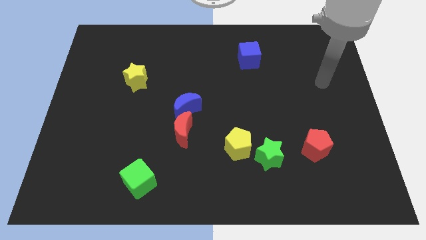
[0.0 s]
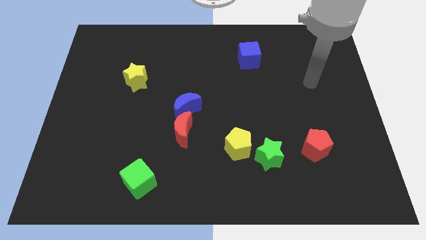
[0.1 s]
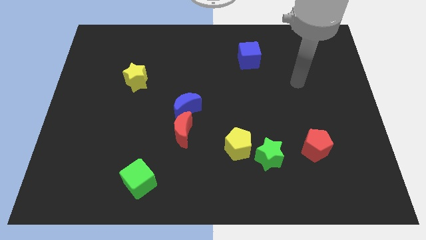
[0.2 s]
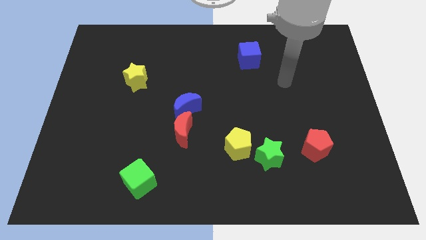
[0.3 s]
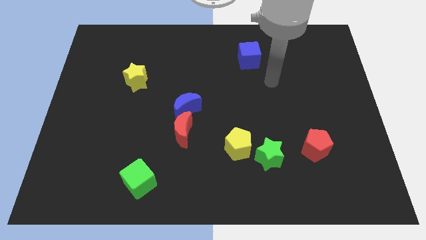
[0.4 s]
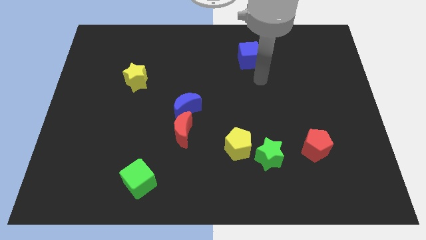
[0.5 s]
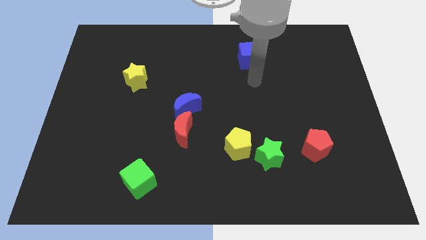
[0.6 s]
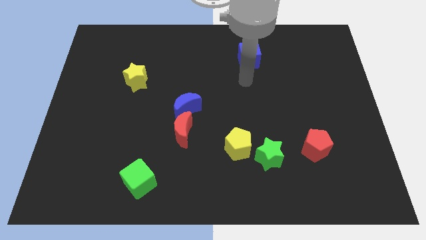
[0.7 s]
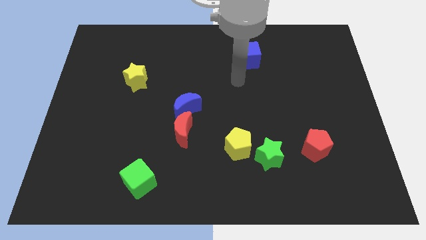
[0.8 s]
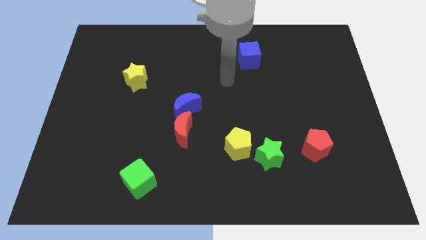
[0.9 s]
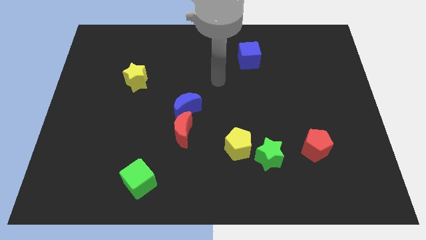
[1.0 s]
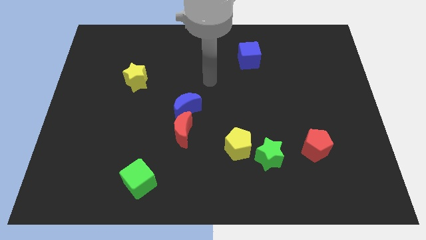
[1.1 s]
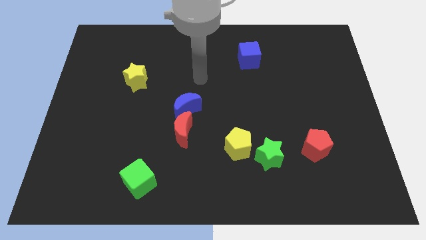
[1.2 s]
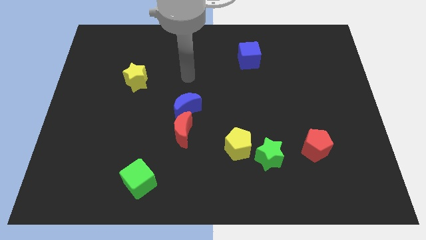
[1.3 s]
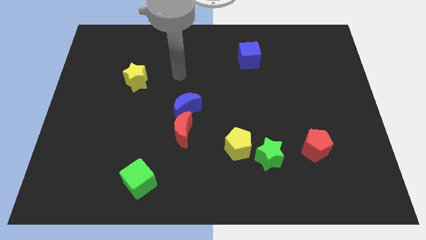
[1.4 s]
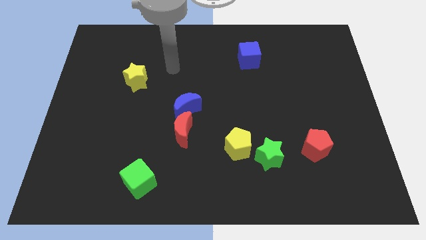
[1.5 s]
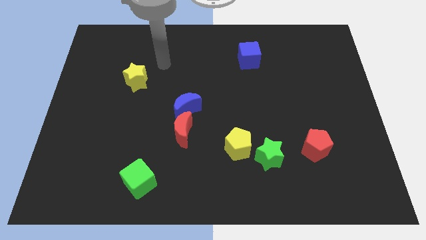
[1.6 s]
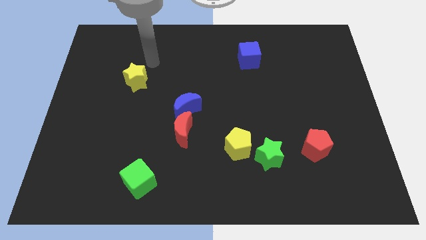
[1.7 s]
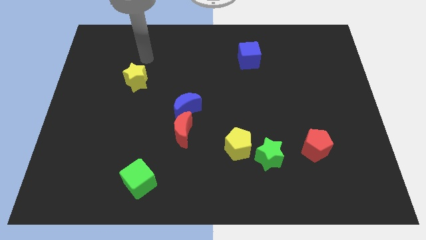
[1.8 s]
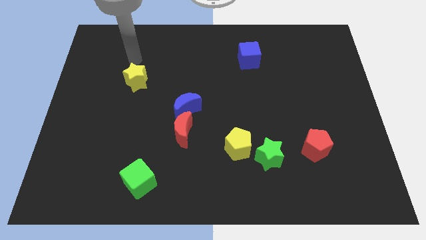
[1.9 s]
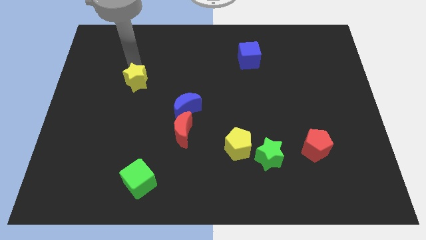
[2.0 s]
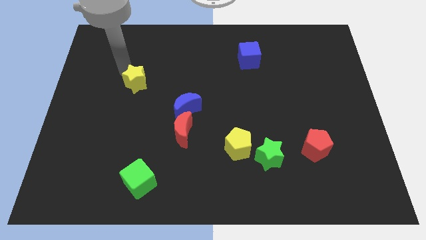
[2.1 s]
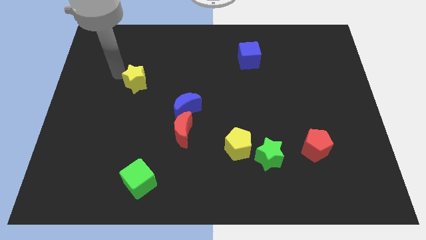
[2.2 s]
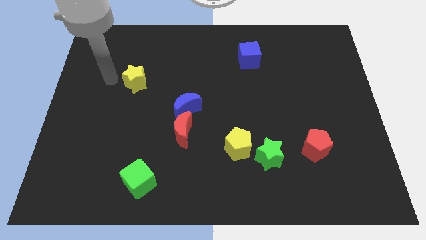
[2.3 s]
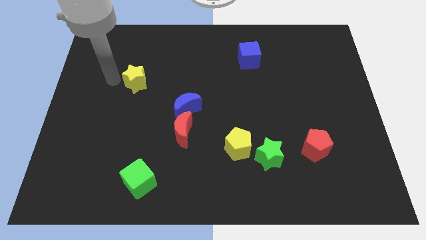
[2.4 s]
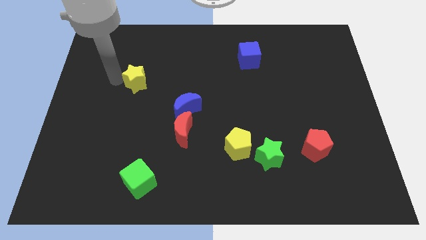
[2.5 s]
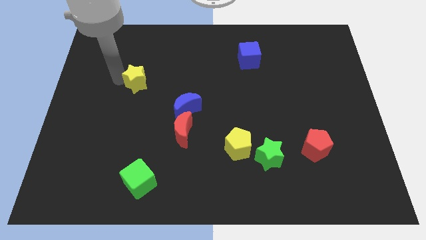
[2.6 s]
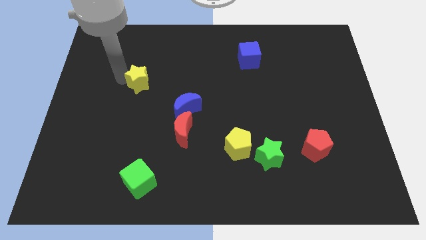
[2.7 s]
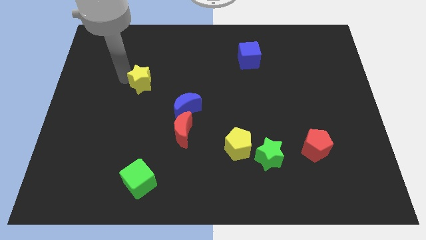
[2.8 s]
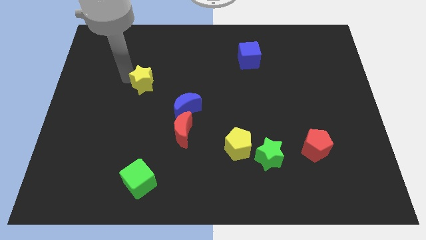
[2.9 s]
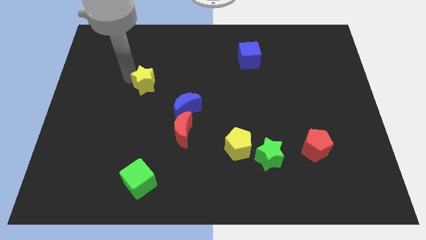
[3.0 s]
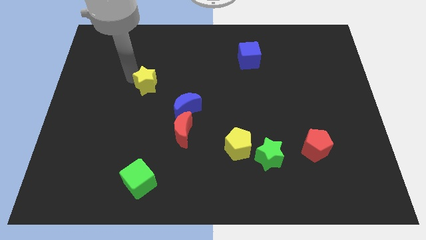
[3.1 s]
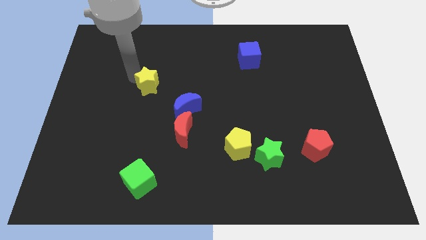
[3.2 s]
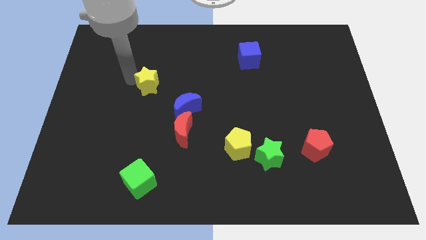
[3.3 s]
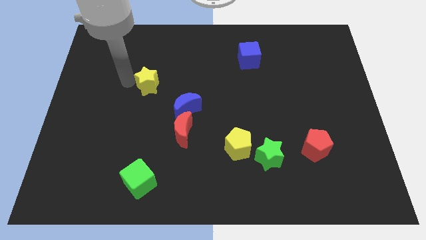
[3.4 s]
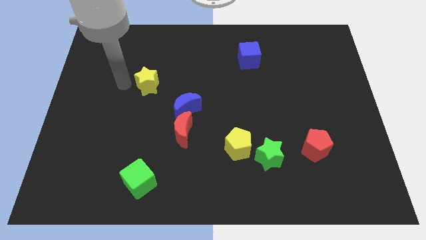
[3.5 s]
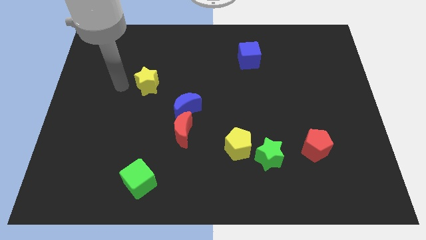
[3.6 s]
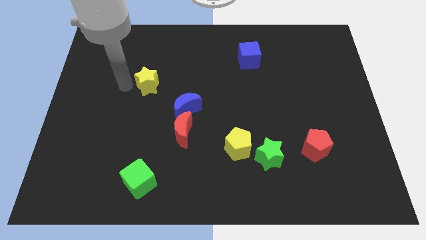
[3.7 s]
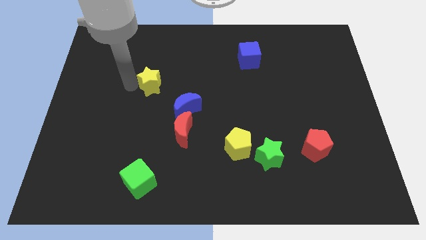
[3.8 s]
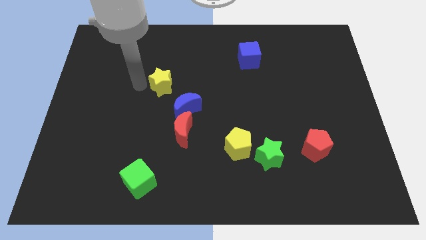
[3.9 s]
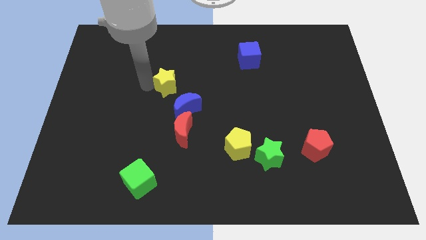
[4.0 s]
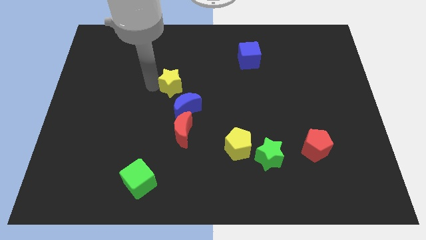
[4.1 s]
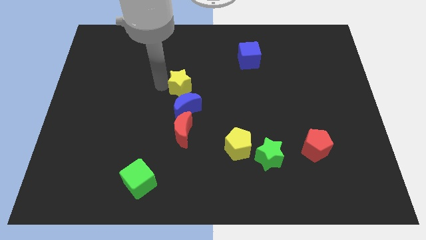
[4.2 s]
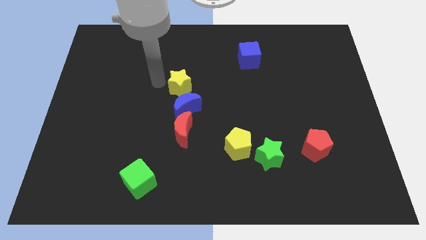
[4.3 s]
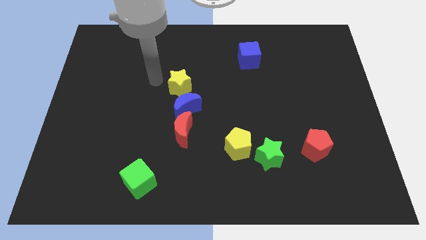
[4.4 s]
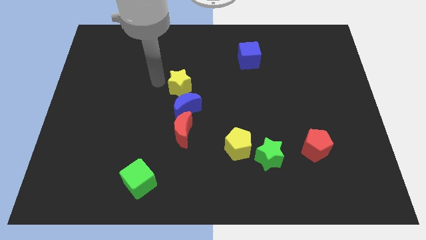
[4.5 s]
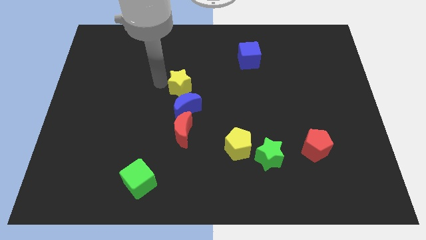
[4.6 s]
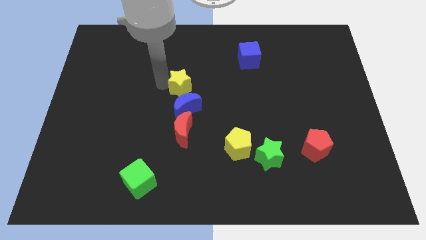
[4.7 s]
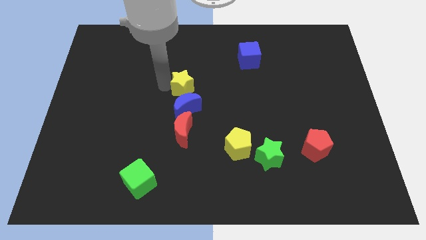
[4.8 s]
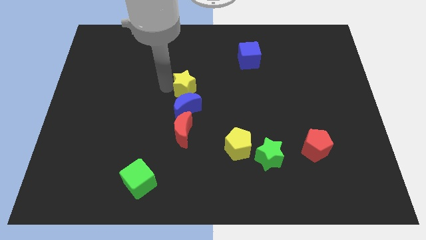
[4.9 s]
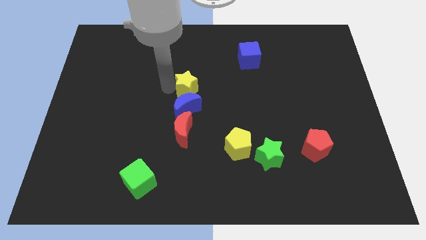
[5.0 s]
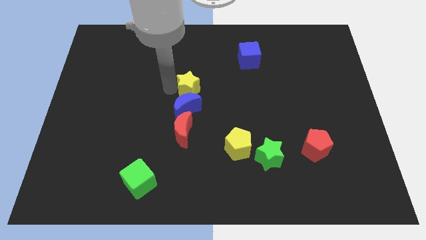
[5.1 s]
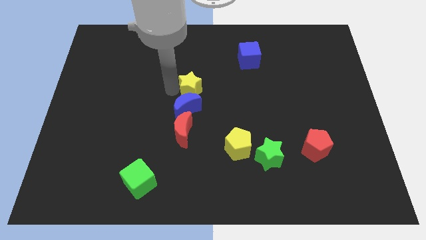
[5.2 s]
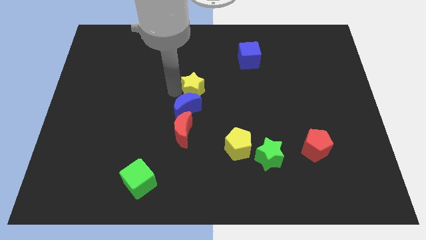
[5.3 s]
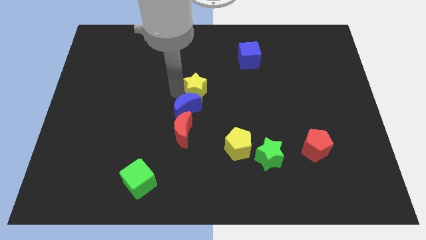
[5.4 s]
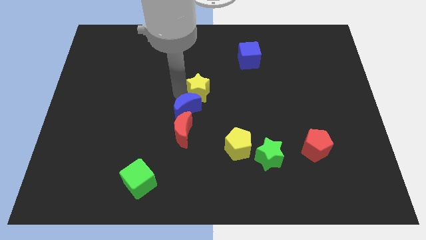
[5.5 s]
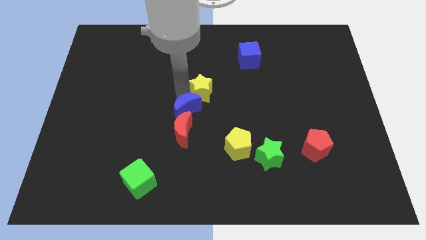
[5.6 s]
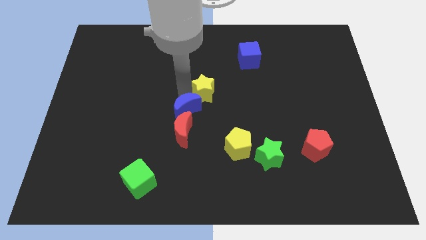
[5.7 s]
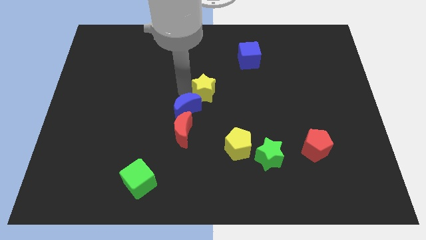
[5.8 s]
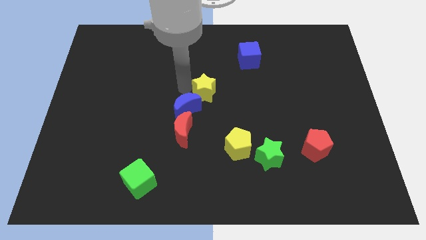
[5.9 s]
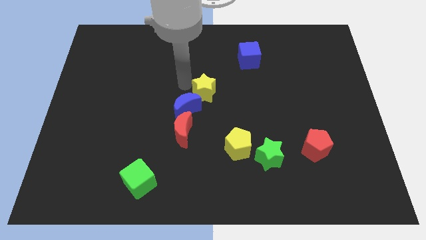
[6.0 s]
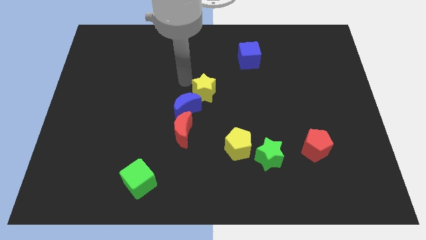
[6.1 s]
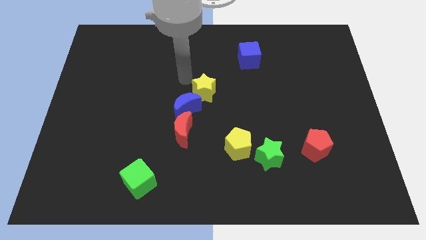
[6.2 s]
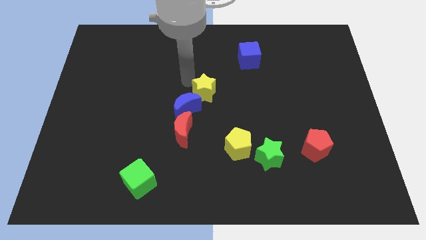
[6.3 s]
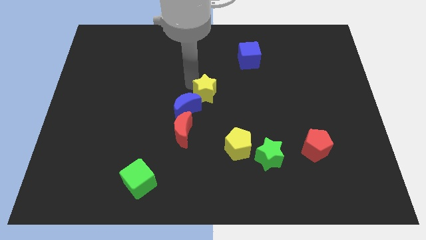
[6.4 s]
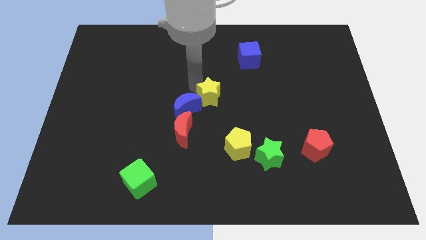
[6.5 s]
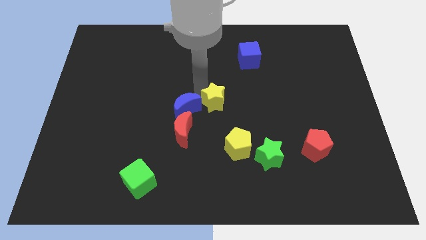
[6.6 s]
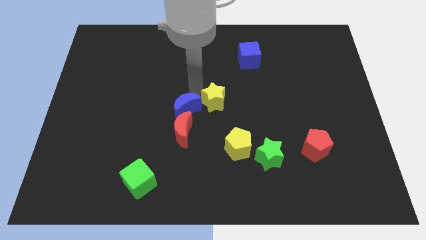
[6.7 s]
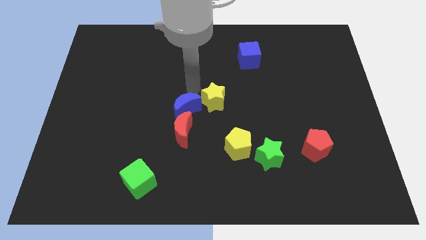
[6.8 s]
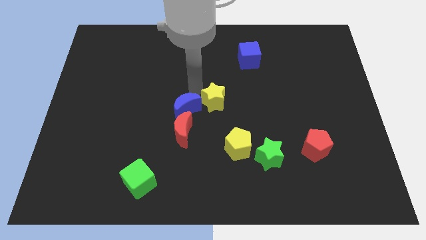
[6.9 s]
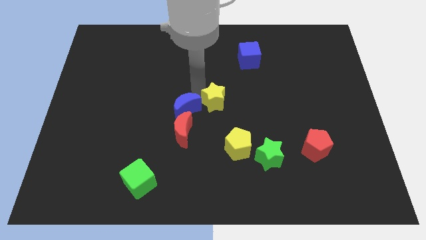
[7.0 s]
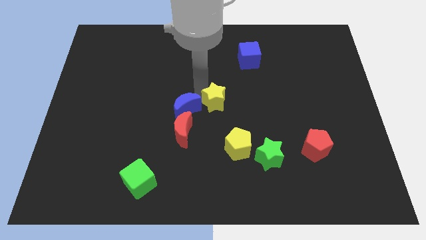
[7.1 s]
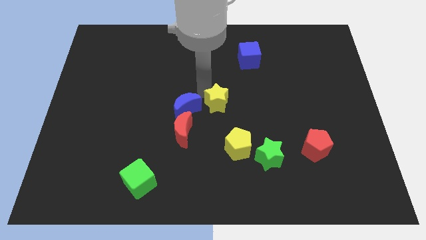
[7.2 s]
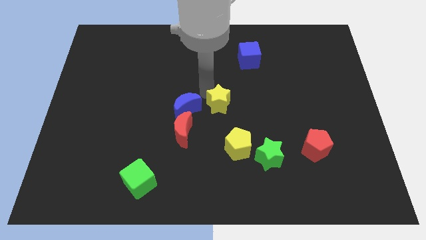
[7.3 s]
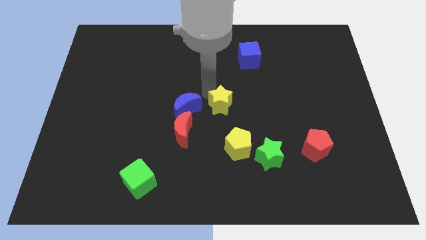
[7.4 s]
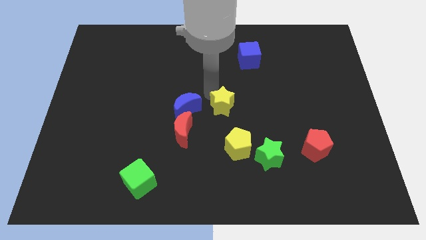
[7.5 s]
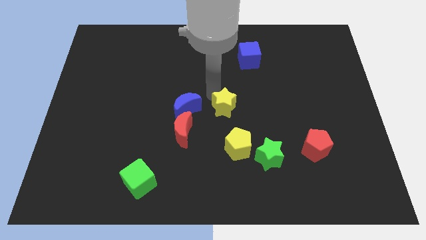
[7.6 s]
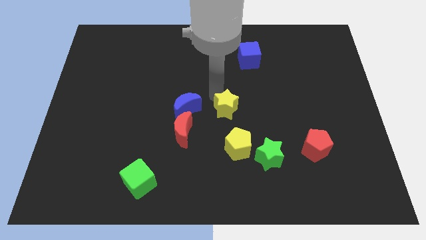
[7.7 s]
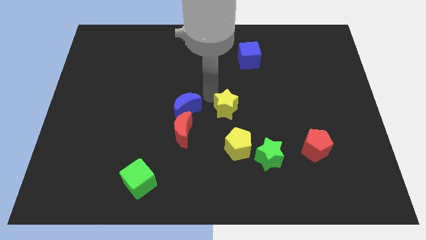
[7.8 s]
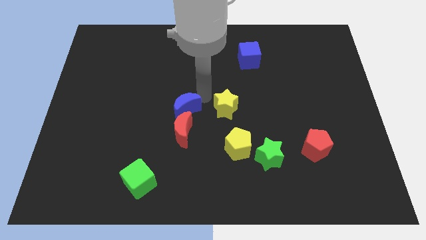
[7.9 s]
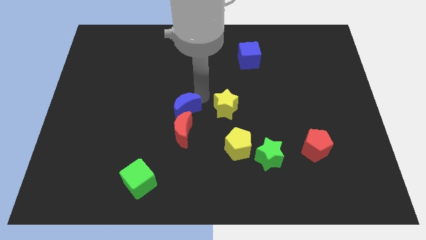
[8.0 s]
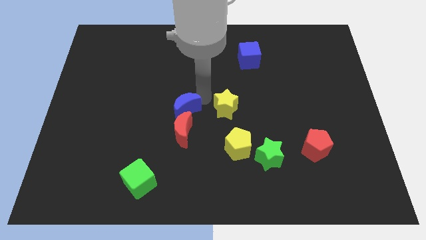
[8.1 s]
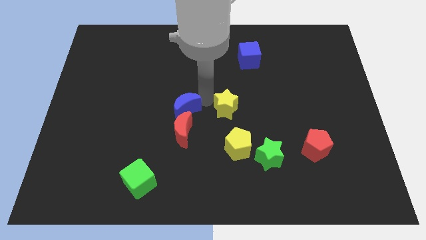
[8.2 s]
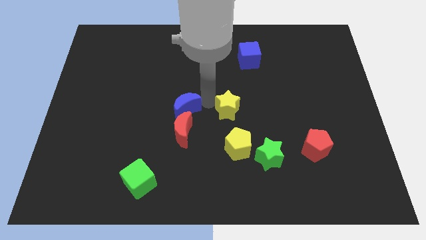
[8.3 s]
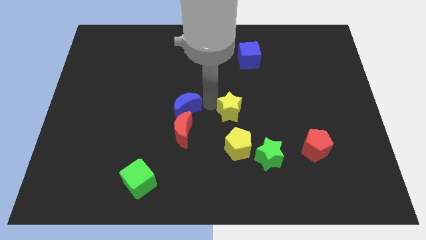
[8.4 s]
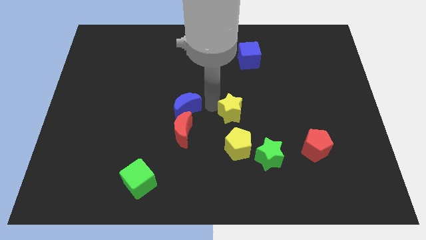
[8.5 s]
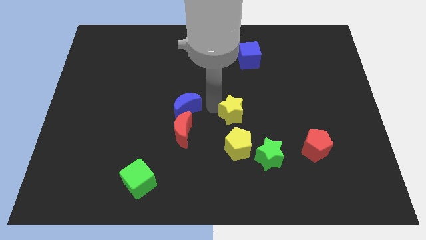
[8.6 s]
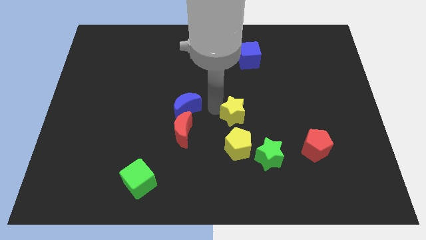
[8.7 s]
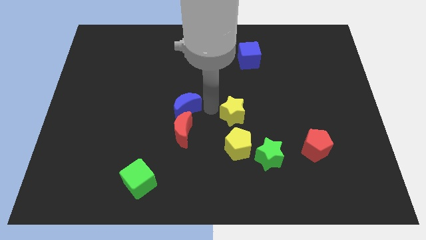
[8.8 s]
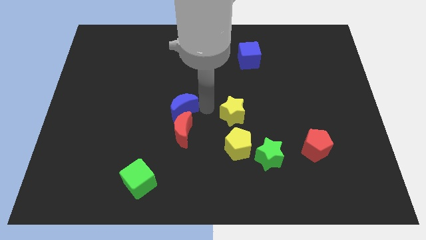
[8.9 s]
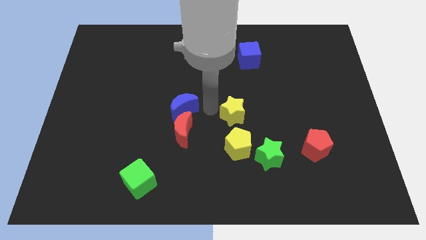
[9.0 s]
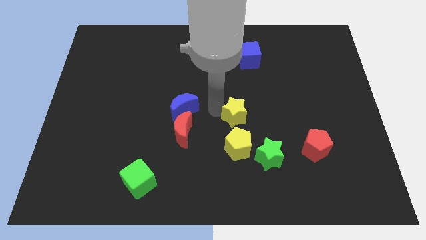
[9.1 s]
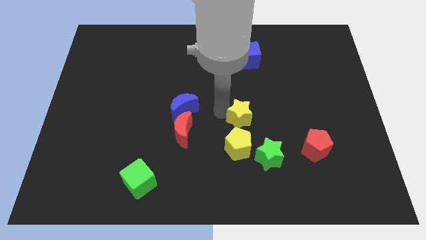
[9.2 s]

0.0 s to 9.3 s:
slide the yellow star to the top left side of the green star
